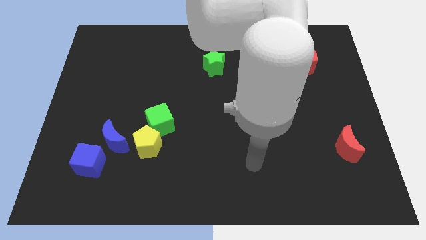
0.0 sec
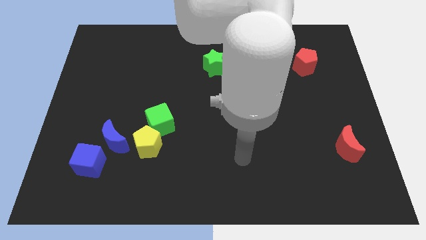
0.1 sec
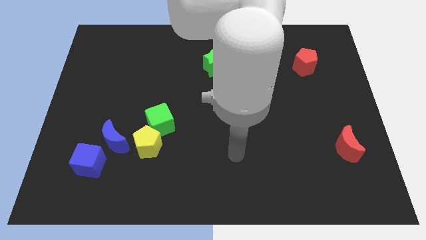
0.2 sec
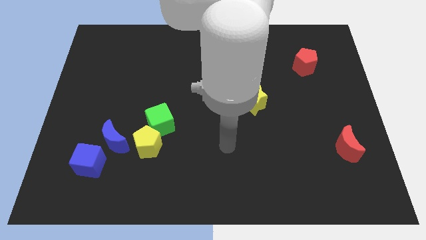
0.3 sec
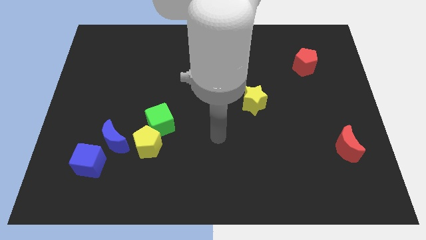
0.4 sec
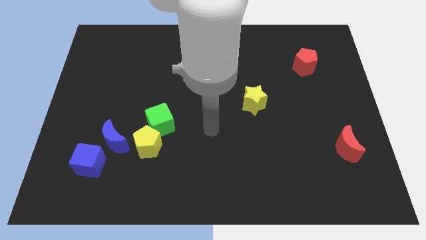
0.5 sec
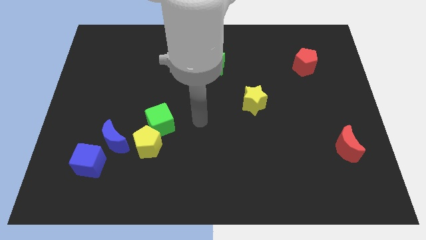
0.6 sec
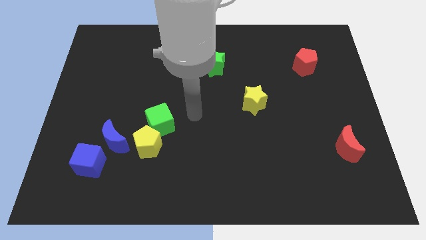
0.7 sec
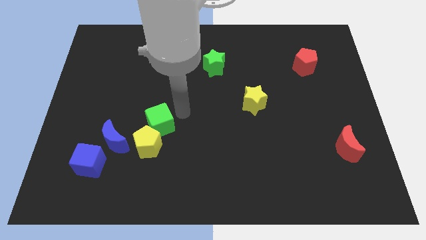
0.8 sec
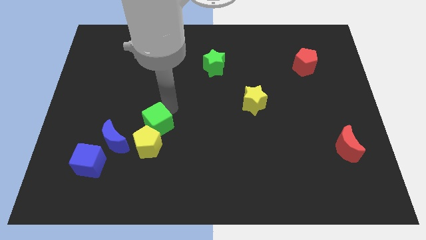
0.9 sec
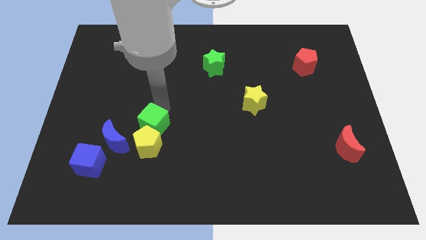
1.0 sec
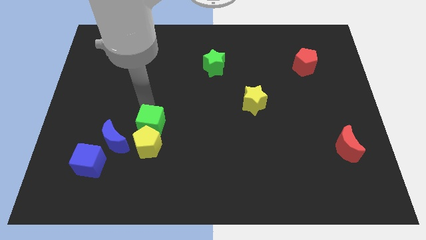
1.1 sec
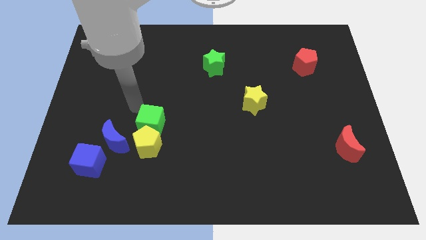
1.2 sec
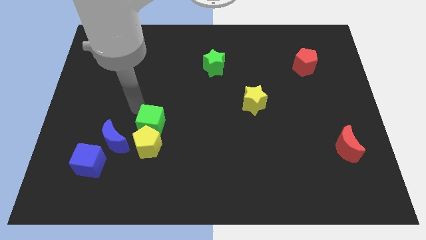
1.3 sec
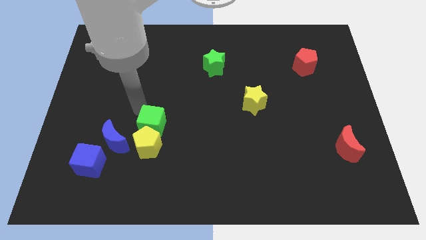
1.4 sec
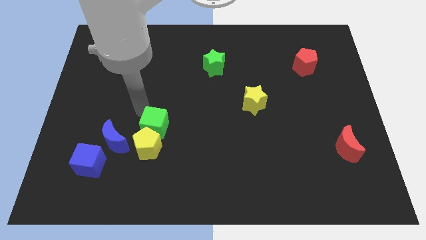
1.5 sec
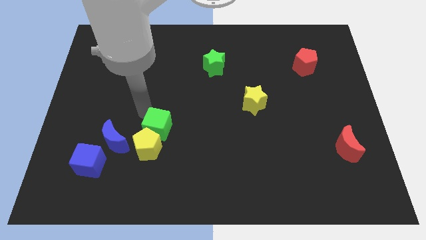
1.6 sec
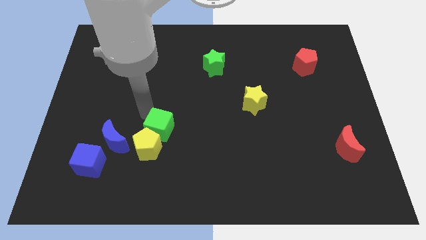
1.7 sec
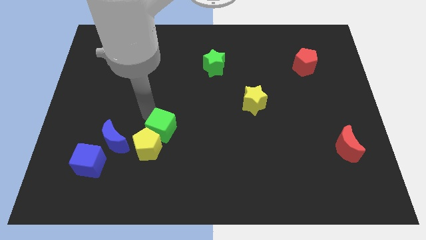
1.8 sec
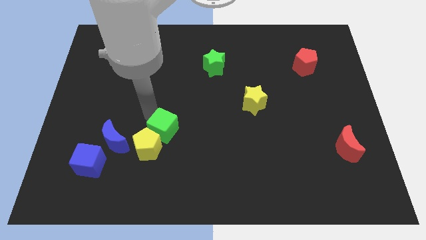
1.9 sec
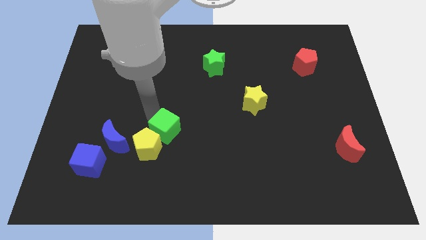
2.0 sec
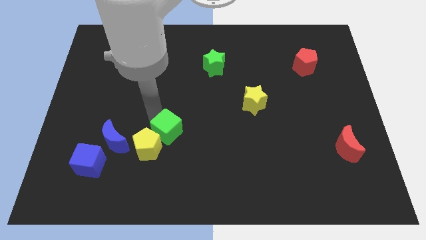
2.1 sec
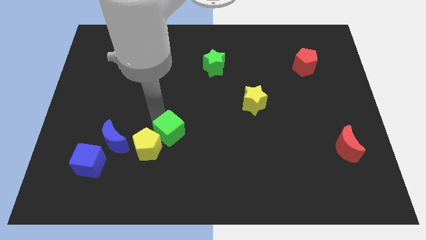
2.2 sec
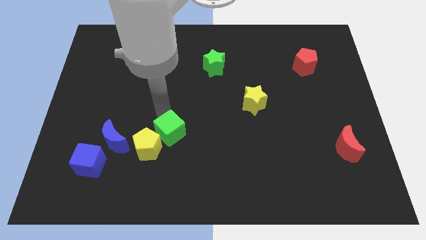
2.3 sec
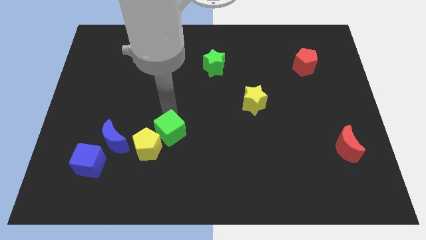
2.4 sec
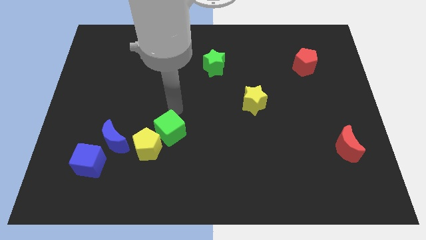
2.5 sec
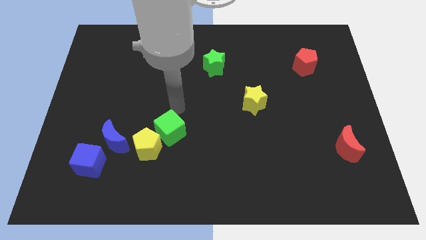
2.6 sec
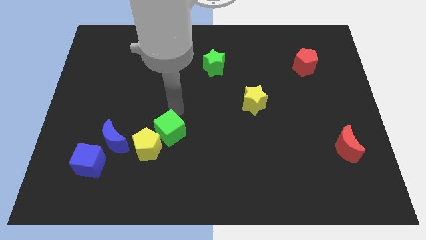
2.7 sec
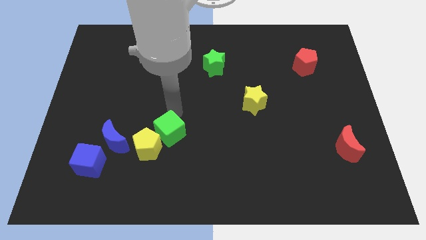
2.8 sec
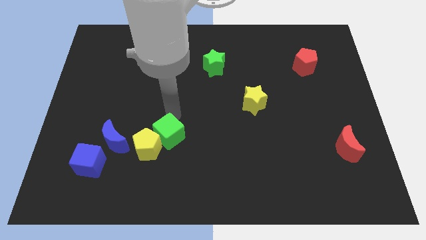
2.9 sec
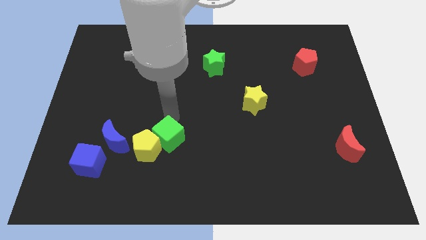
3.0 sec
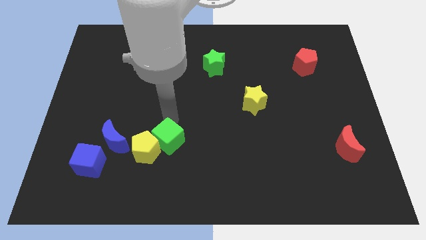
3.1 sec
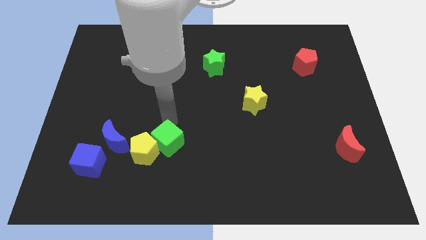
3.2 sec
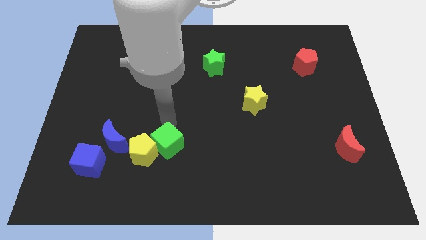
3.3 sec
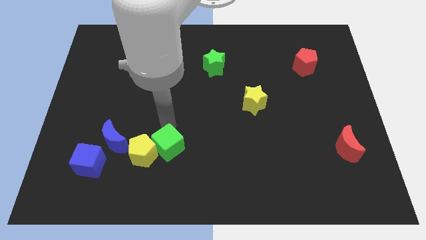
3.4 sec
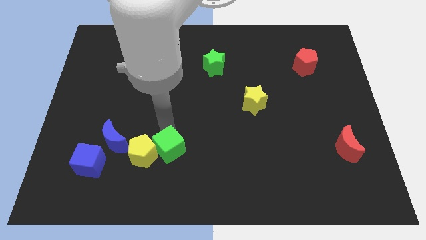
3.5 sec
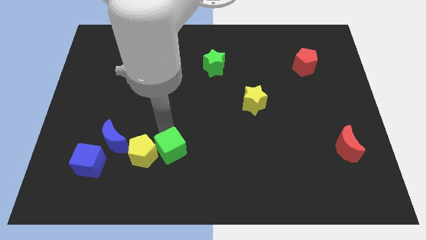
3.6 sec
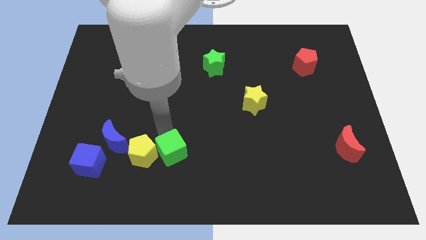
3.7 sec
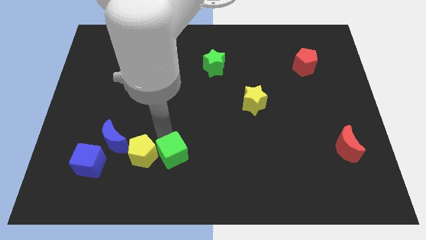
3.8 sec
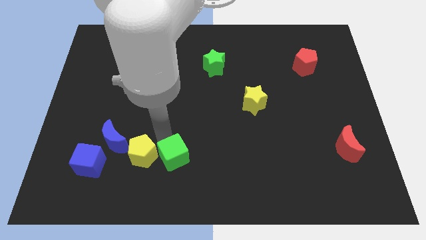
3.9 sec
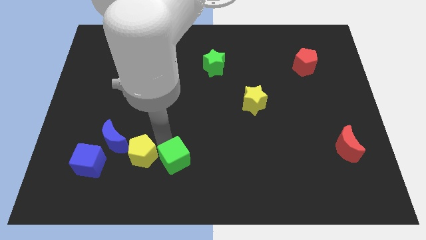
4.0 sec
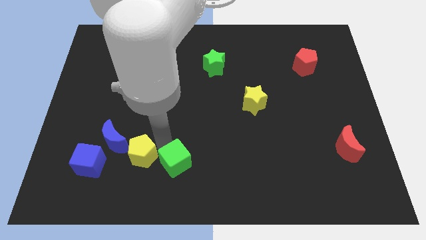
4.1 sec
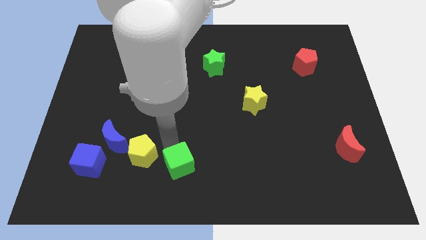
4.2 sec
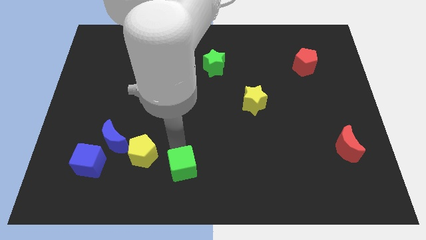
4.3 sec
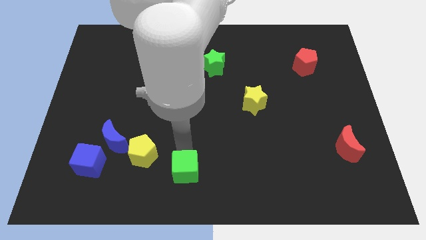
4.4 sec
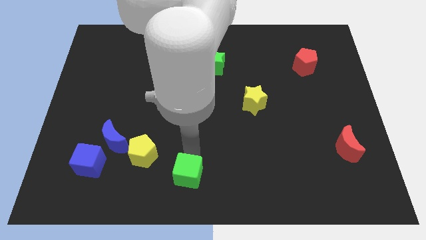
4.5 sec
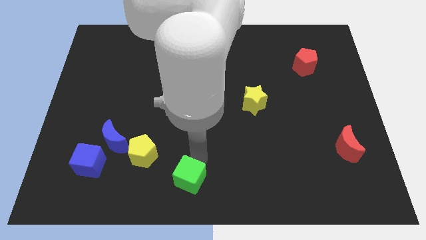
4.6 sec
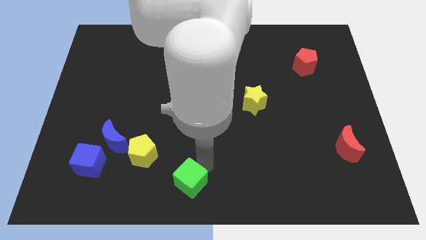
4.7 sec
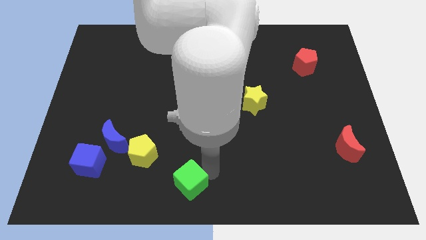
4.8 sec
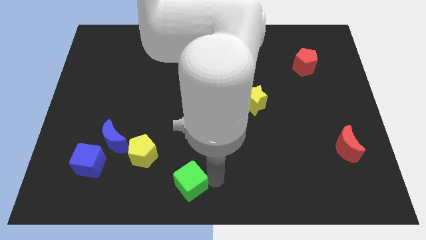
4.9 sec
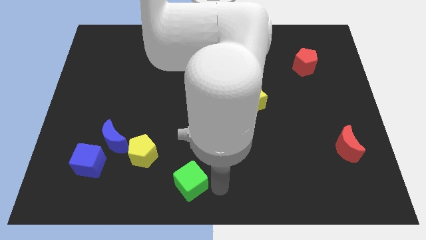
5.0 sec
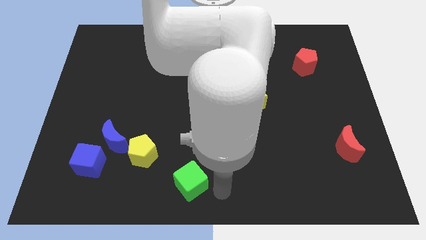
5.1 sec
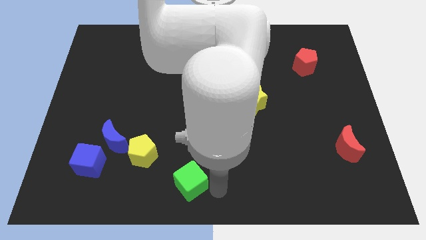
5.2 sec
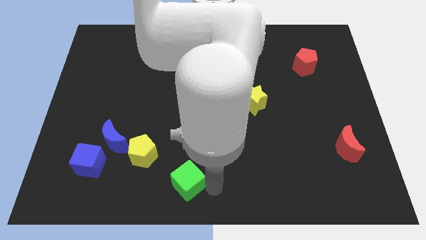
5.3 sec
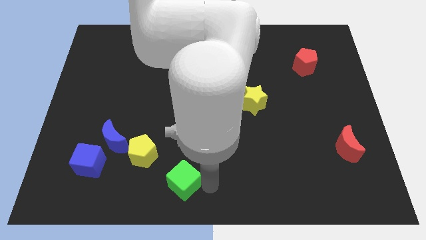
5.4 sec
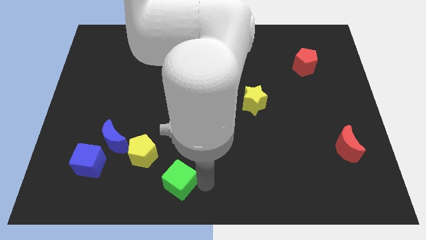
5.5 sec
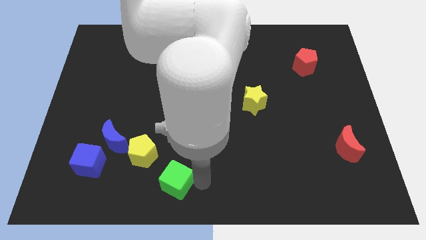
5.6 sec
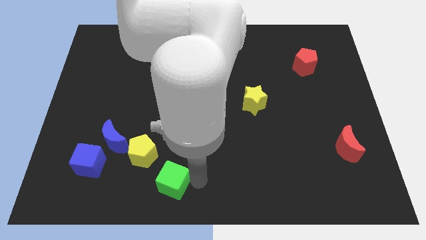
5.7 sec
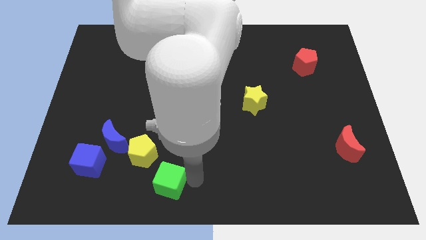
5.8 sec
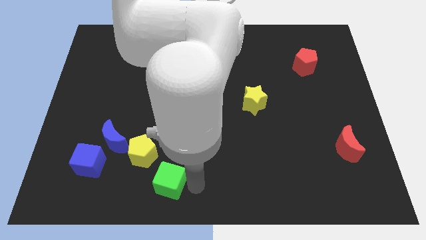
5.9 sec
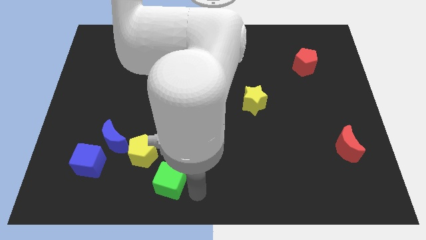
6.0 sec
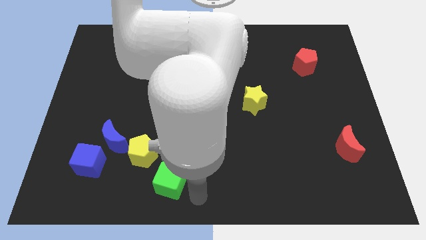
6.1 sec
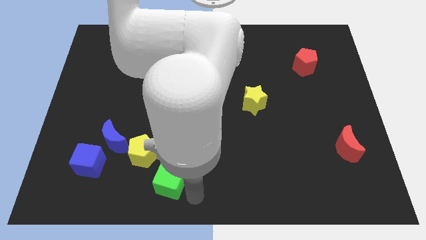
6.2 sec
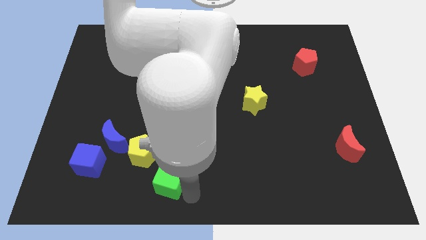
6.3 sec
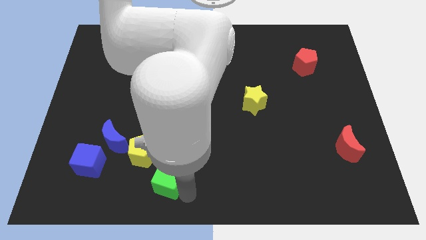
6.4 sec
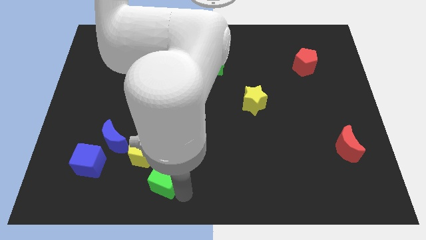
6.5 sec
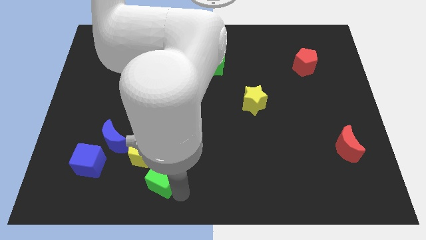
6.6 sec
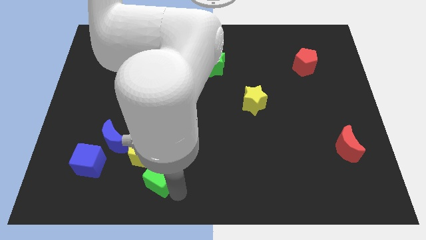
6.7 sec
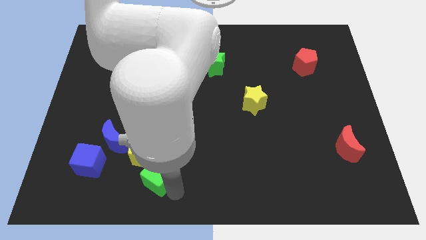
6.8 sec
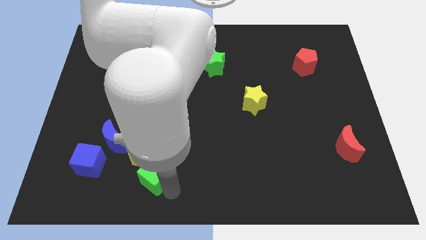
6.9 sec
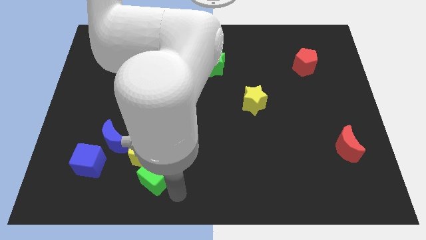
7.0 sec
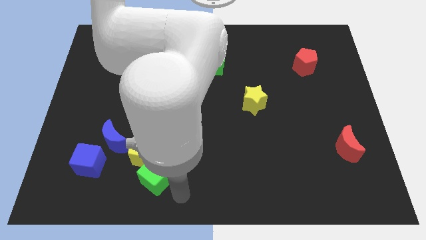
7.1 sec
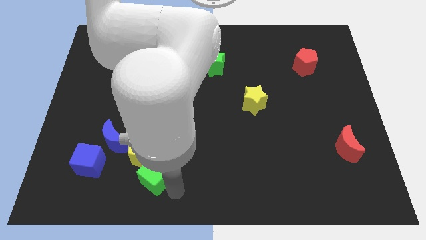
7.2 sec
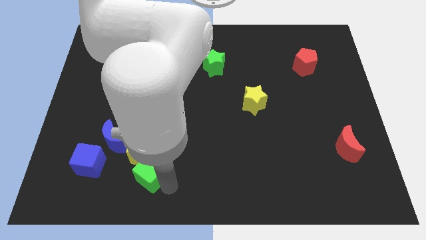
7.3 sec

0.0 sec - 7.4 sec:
slide the green cube to the bottom right of the blue moon
